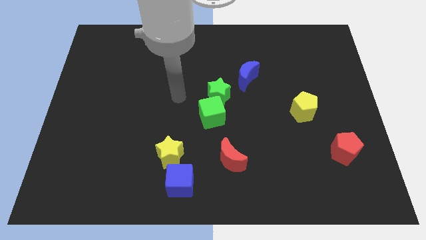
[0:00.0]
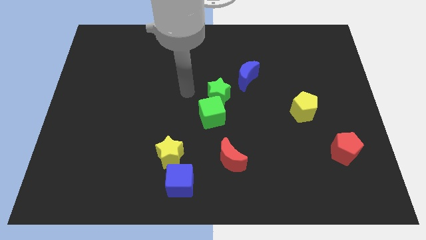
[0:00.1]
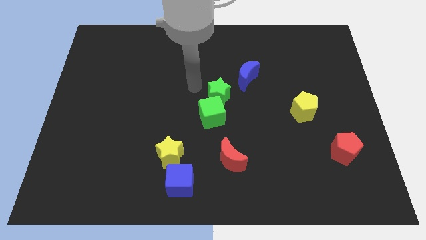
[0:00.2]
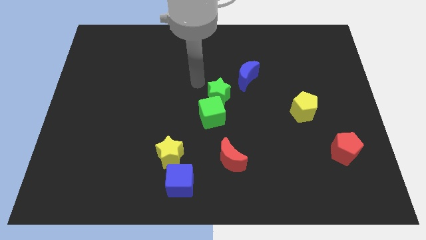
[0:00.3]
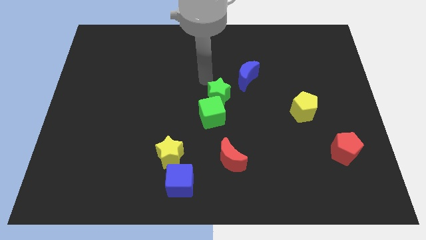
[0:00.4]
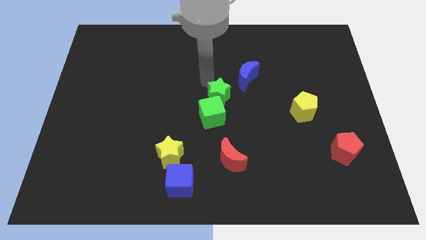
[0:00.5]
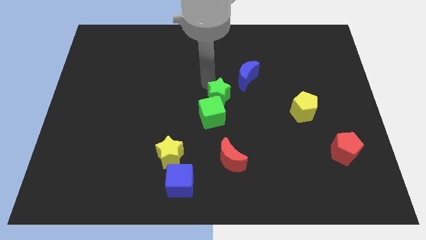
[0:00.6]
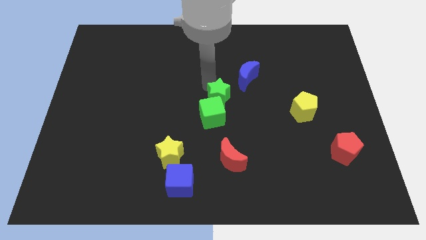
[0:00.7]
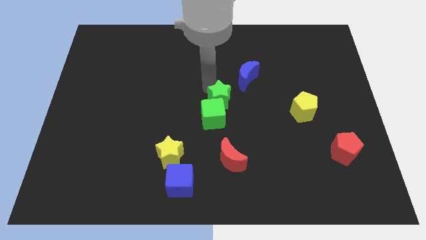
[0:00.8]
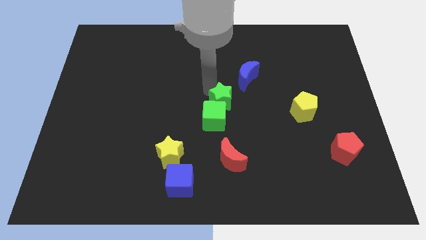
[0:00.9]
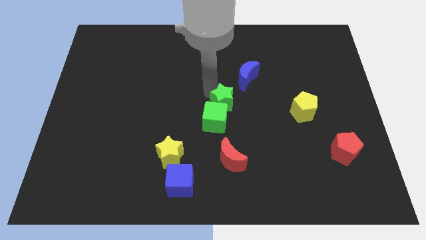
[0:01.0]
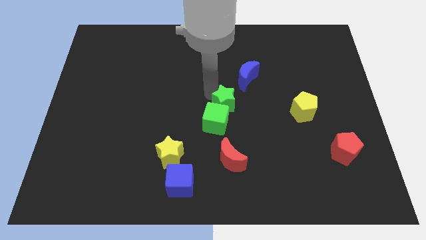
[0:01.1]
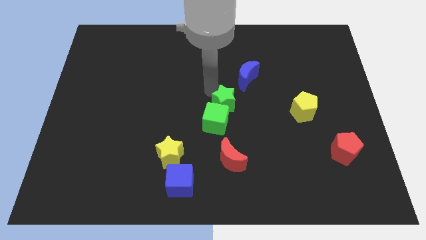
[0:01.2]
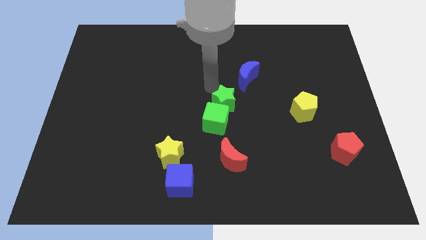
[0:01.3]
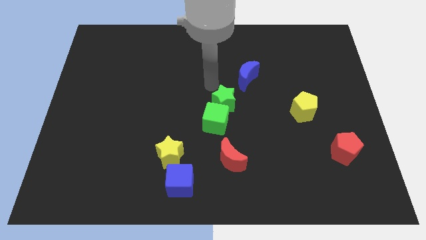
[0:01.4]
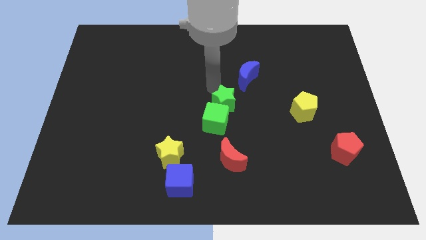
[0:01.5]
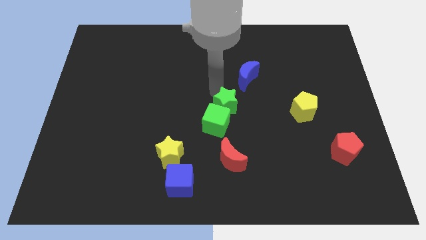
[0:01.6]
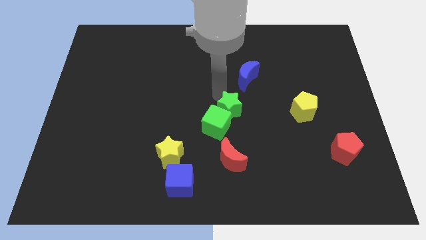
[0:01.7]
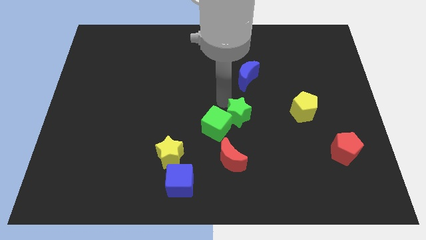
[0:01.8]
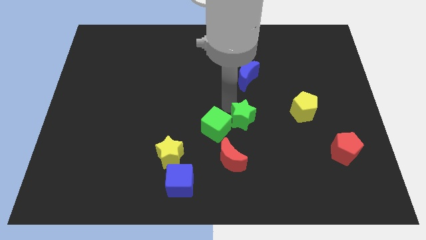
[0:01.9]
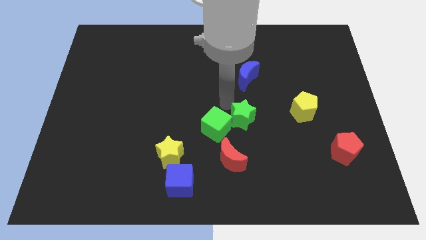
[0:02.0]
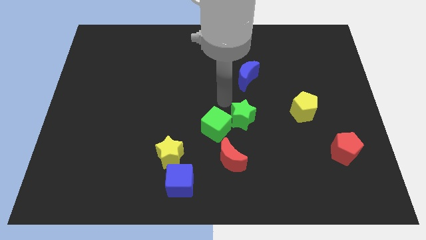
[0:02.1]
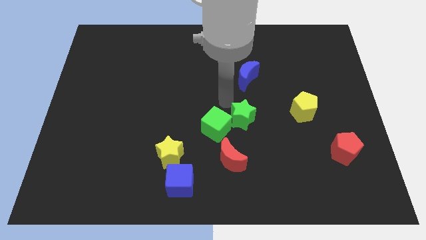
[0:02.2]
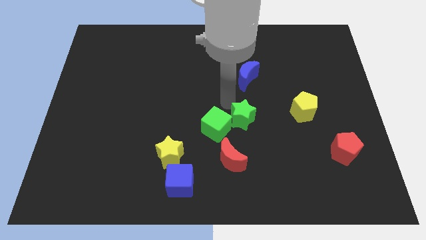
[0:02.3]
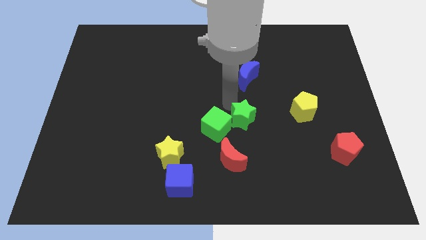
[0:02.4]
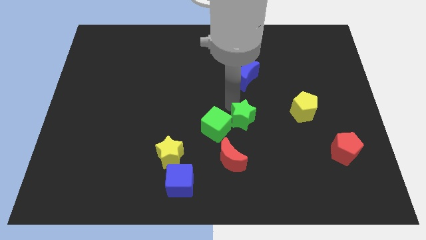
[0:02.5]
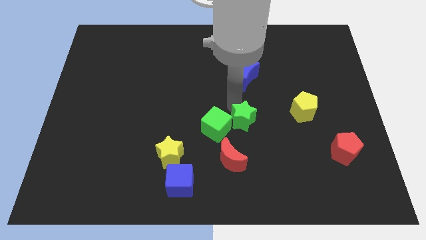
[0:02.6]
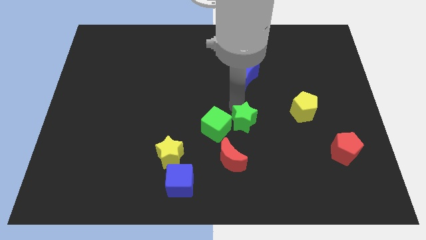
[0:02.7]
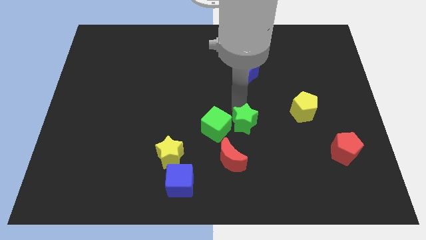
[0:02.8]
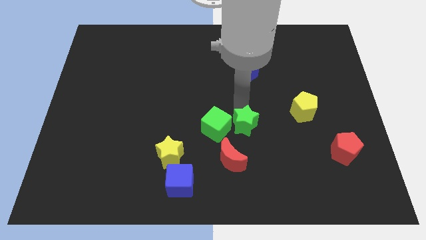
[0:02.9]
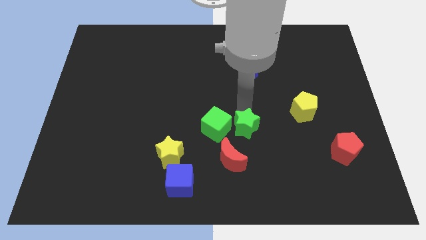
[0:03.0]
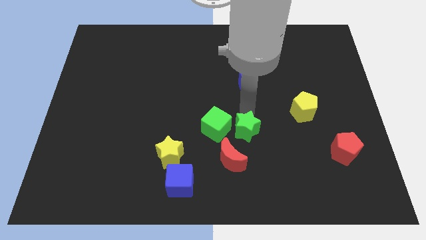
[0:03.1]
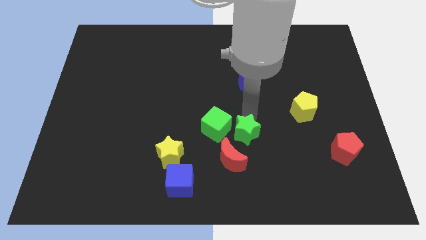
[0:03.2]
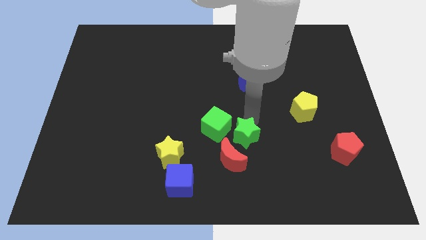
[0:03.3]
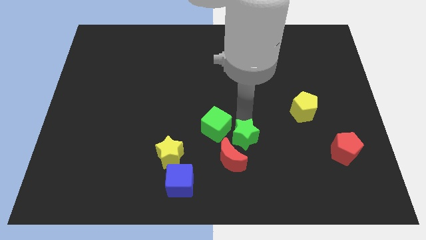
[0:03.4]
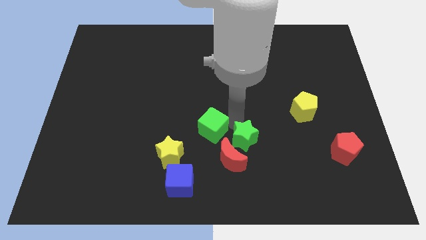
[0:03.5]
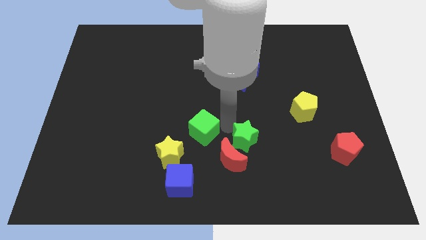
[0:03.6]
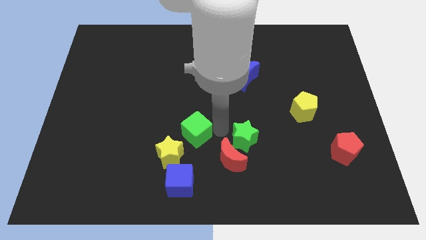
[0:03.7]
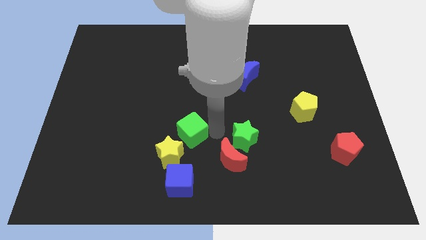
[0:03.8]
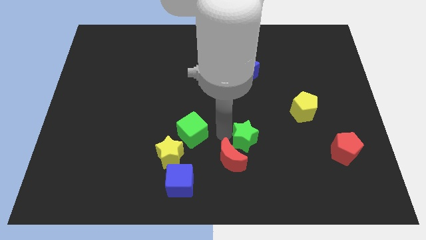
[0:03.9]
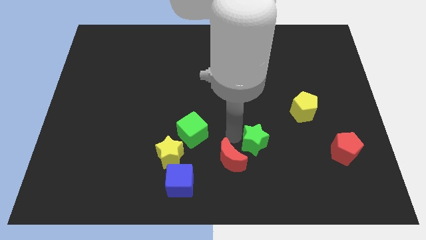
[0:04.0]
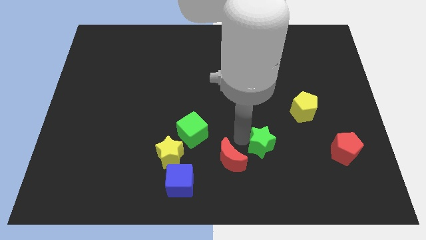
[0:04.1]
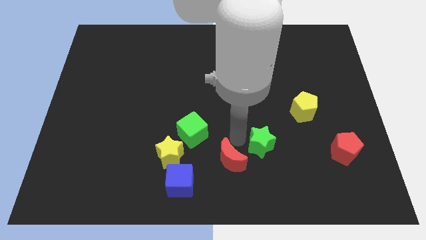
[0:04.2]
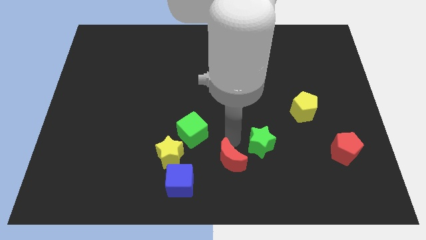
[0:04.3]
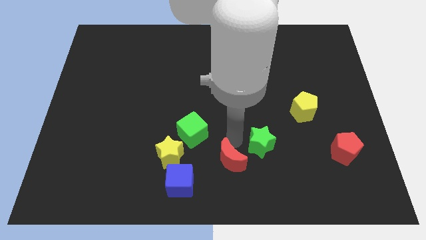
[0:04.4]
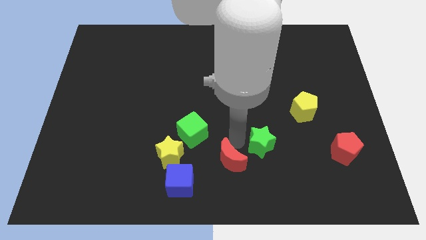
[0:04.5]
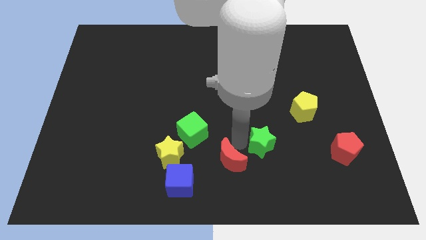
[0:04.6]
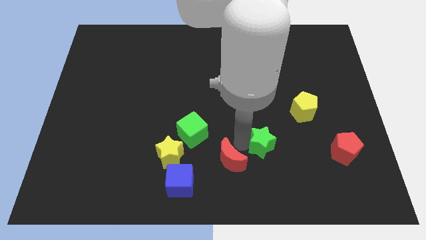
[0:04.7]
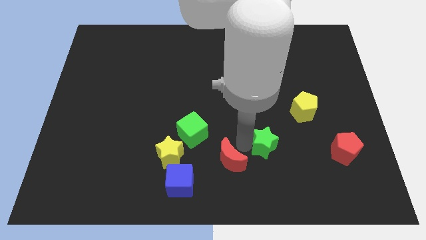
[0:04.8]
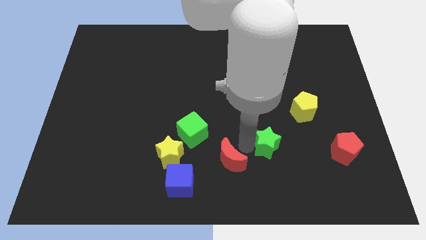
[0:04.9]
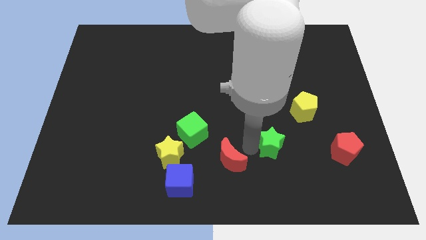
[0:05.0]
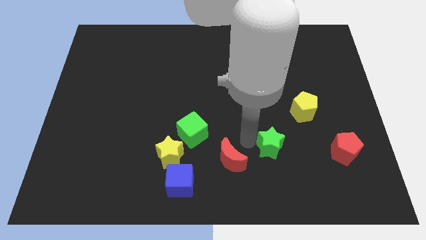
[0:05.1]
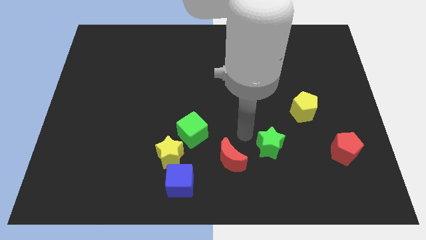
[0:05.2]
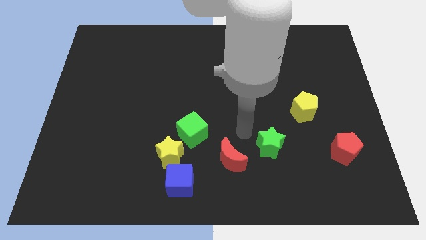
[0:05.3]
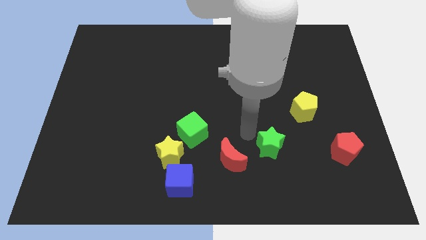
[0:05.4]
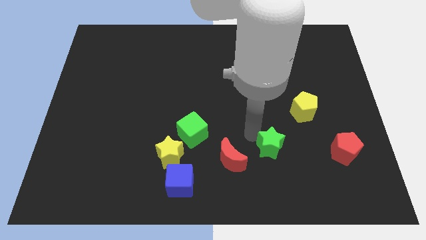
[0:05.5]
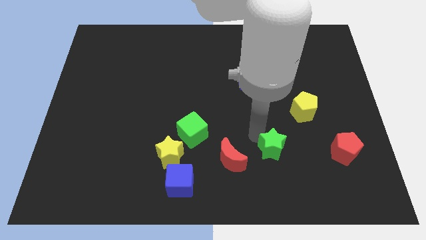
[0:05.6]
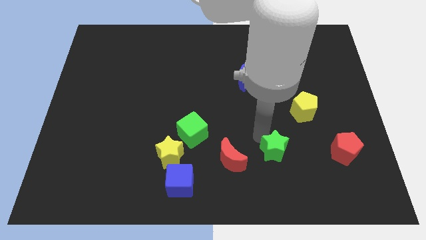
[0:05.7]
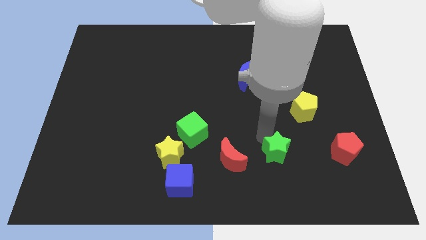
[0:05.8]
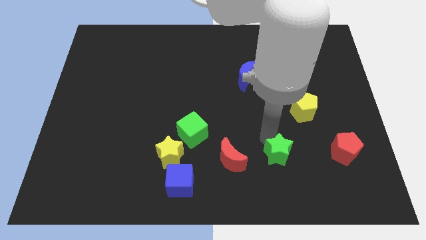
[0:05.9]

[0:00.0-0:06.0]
move the green star down and to the right

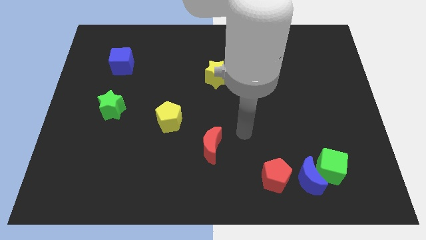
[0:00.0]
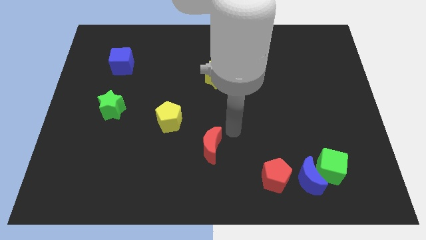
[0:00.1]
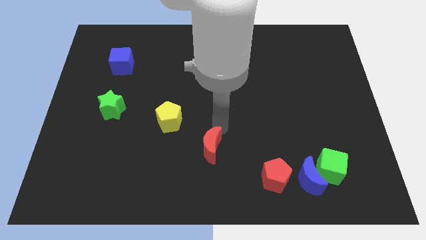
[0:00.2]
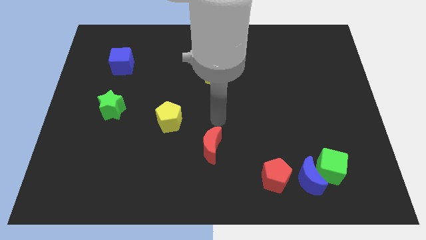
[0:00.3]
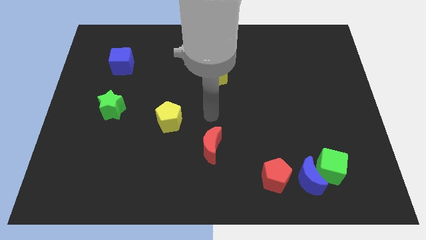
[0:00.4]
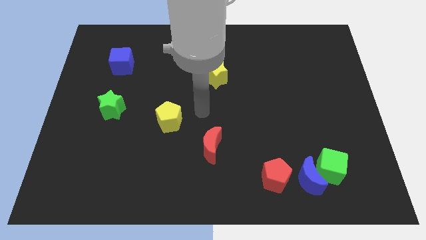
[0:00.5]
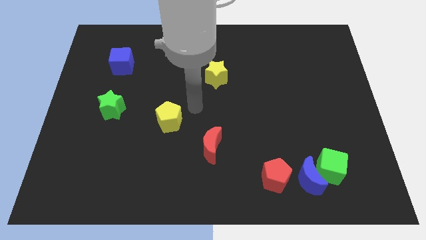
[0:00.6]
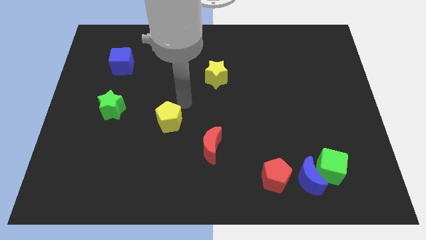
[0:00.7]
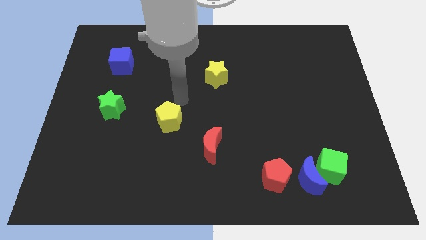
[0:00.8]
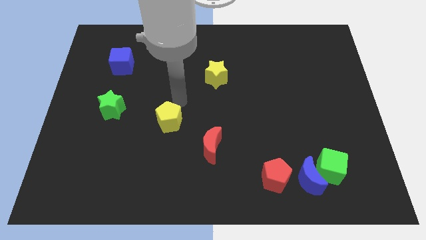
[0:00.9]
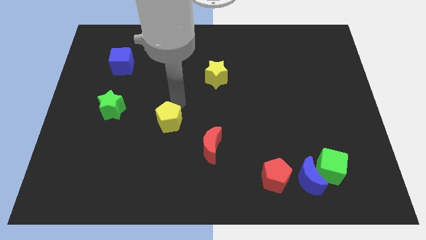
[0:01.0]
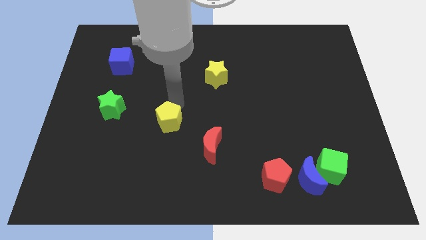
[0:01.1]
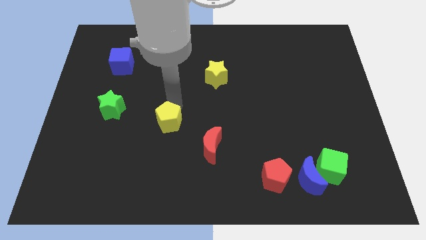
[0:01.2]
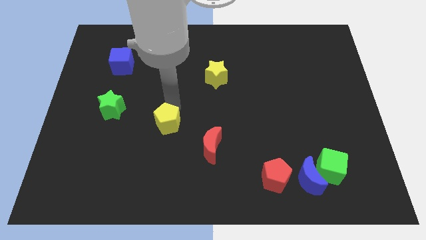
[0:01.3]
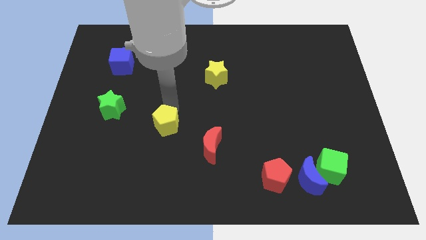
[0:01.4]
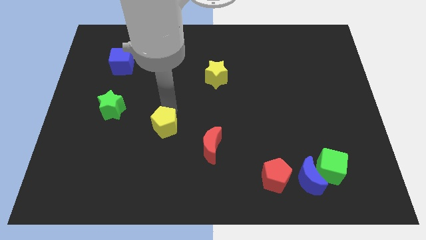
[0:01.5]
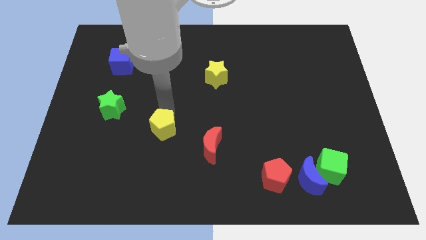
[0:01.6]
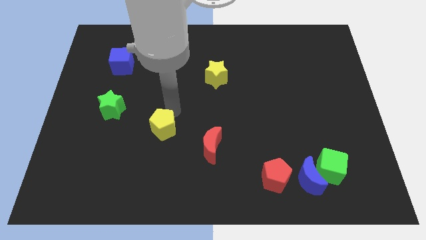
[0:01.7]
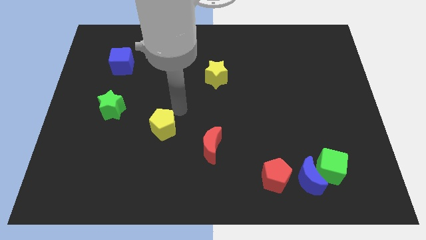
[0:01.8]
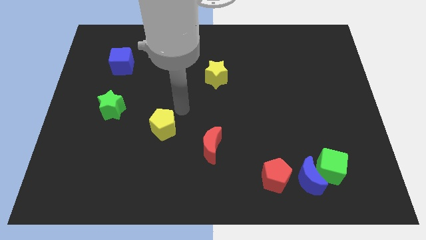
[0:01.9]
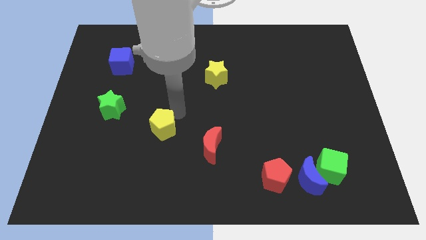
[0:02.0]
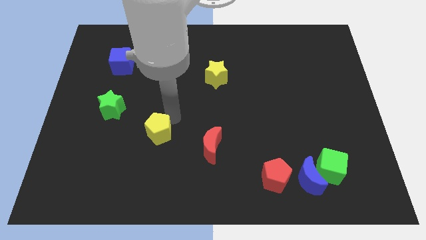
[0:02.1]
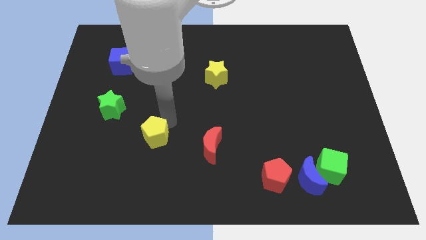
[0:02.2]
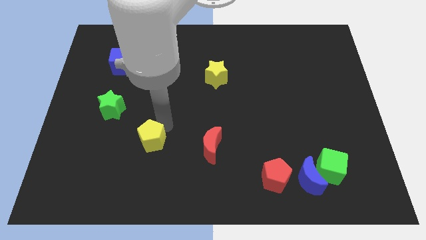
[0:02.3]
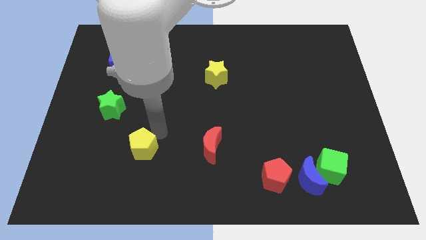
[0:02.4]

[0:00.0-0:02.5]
slide the yellow pentagon downwards and left a bit
